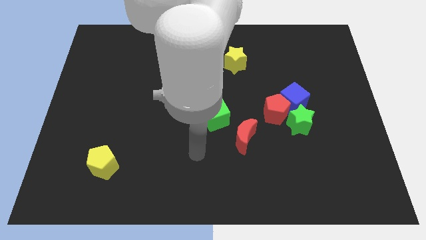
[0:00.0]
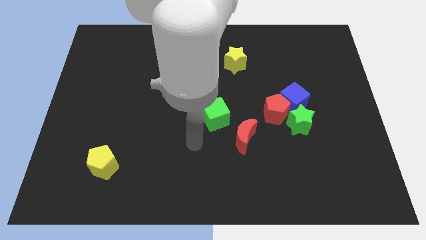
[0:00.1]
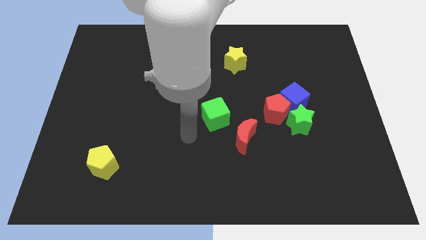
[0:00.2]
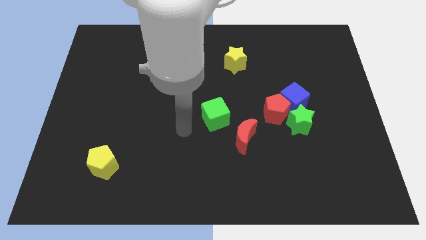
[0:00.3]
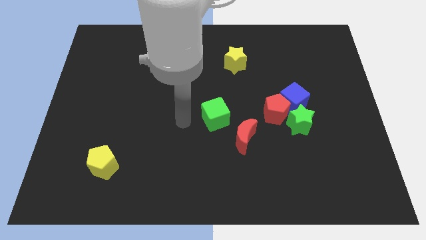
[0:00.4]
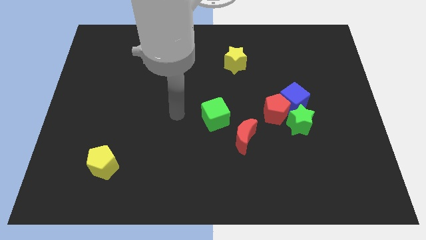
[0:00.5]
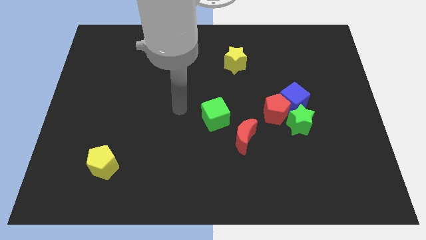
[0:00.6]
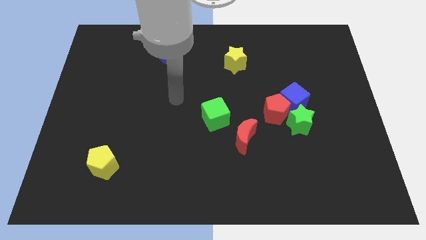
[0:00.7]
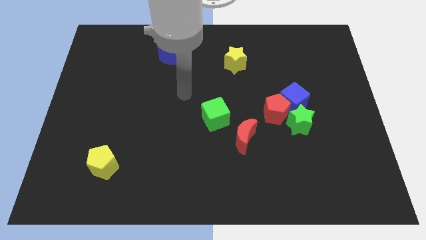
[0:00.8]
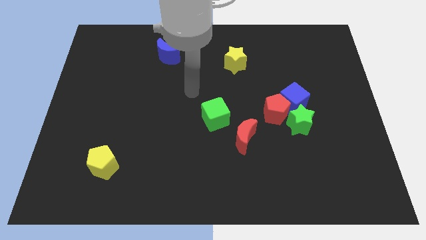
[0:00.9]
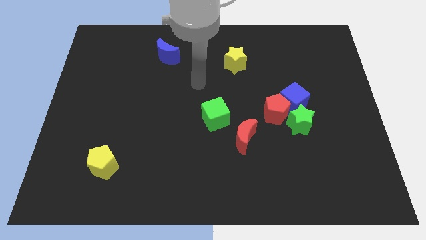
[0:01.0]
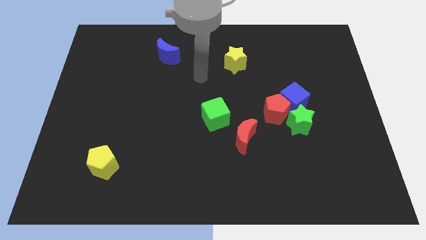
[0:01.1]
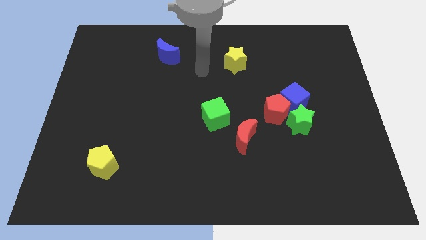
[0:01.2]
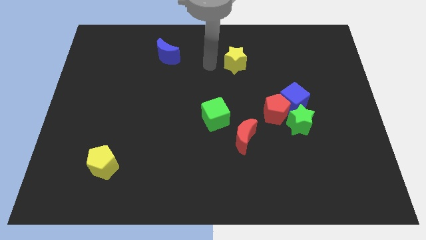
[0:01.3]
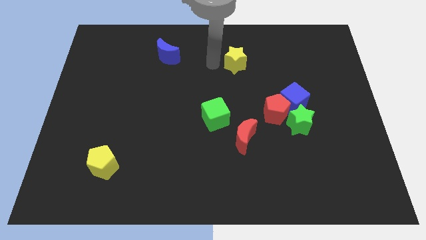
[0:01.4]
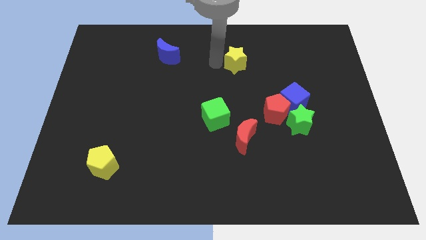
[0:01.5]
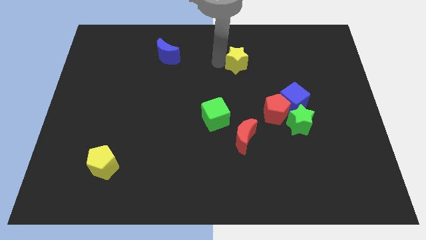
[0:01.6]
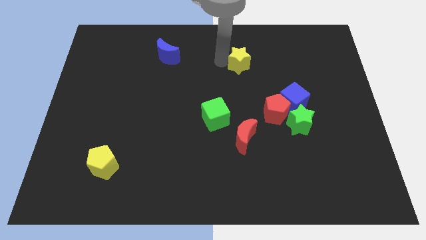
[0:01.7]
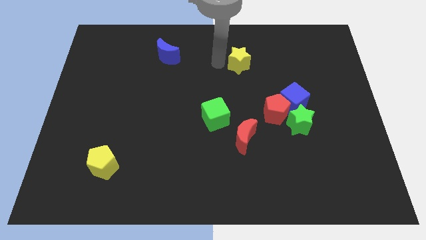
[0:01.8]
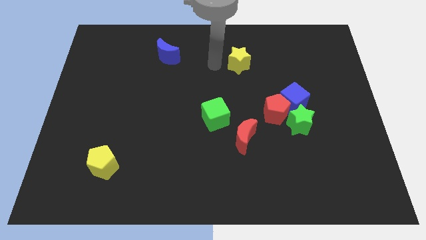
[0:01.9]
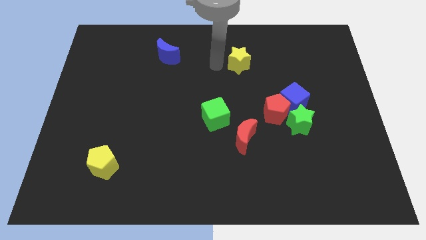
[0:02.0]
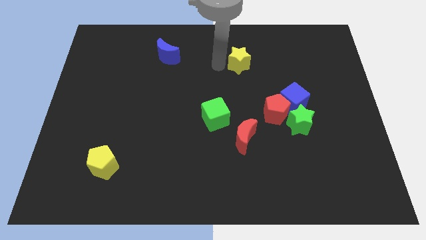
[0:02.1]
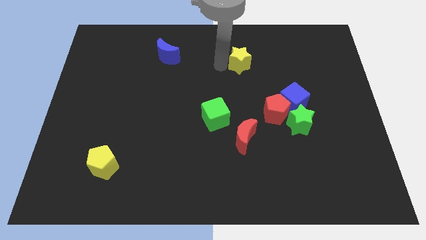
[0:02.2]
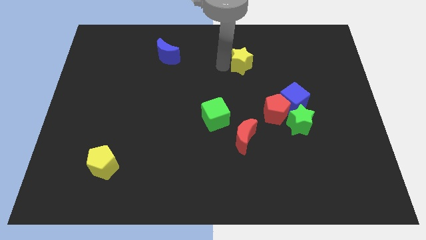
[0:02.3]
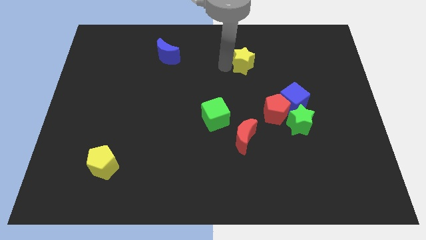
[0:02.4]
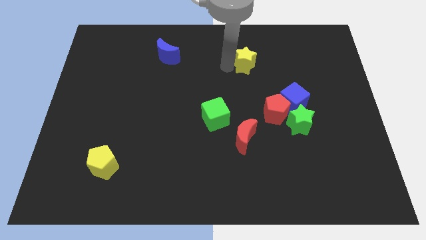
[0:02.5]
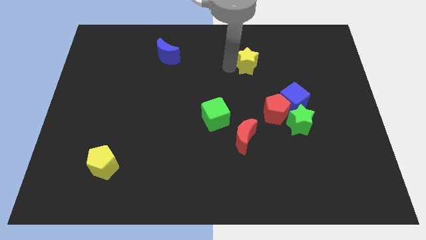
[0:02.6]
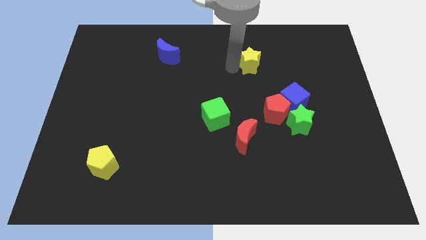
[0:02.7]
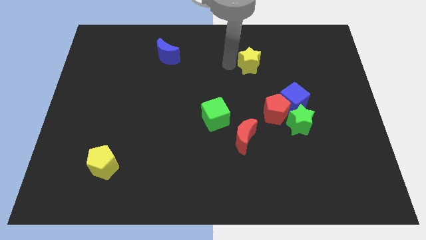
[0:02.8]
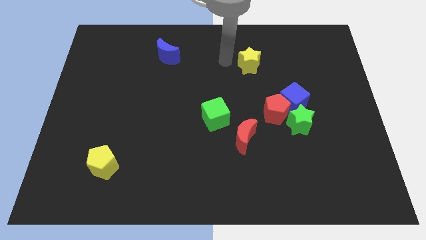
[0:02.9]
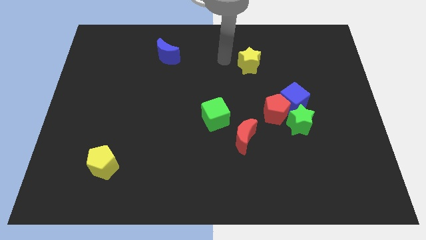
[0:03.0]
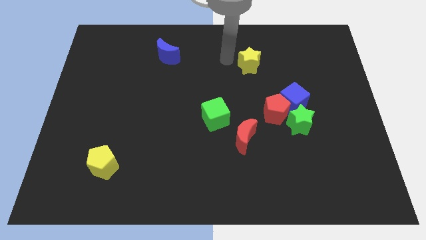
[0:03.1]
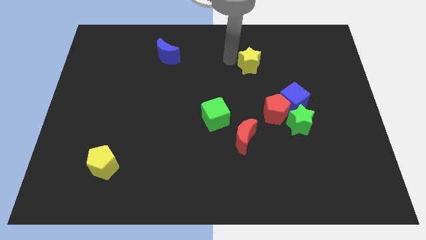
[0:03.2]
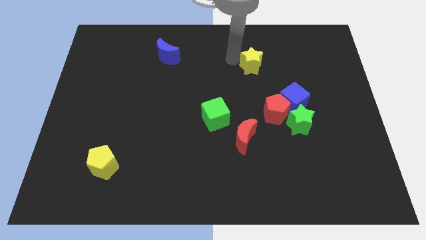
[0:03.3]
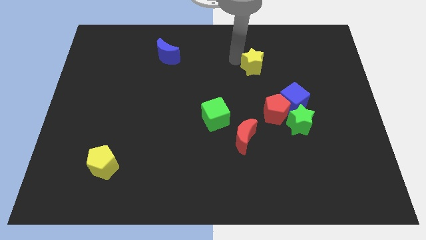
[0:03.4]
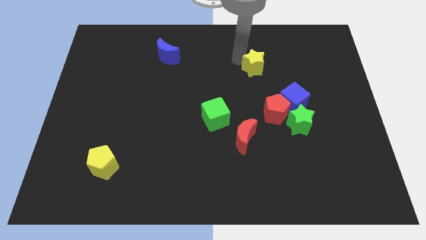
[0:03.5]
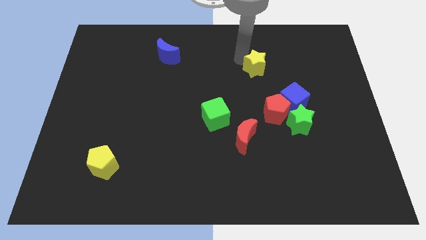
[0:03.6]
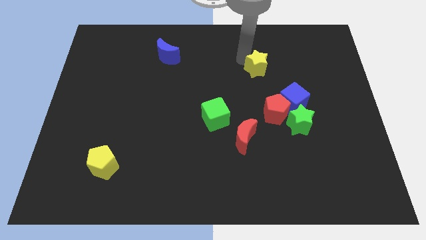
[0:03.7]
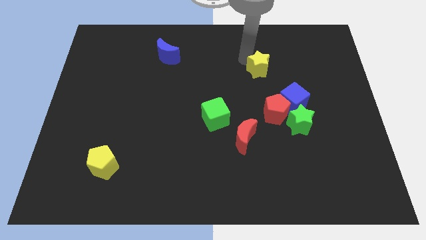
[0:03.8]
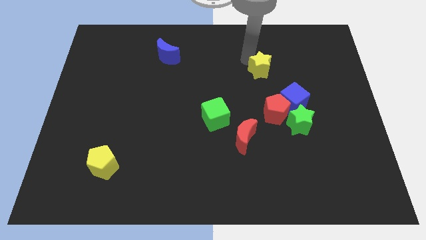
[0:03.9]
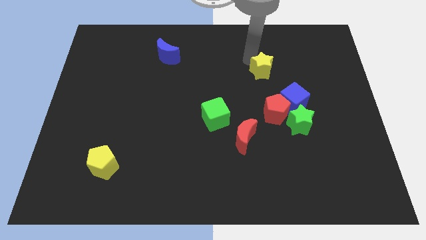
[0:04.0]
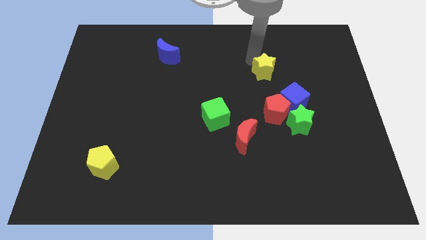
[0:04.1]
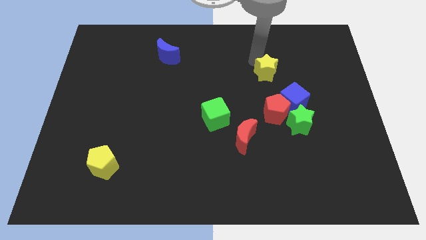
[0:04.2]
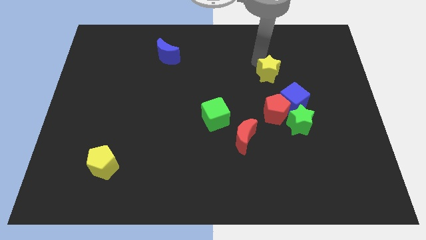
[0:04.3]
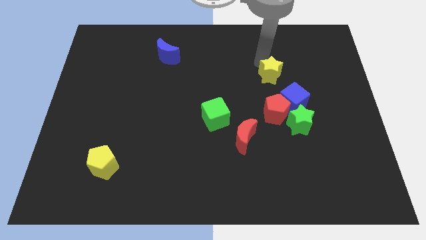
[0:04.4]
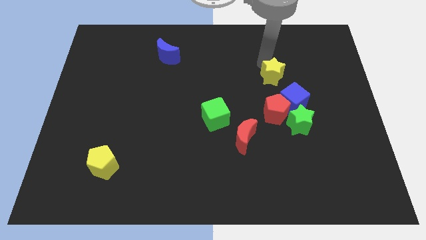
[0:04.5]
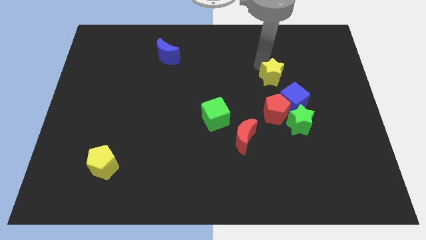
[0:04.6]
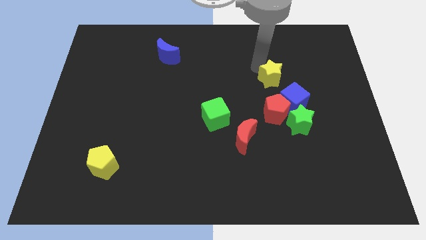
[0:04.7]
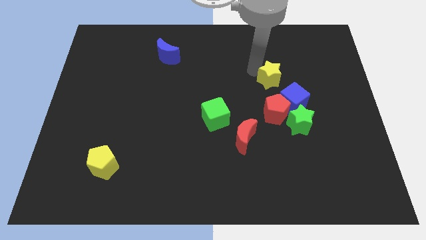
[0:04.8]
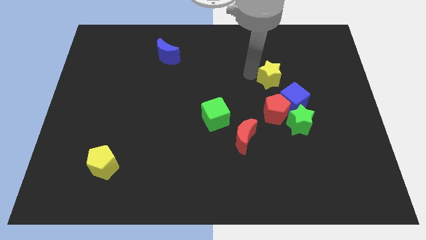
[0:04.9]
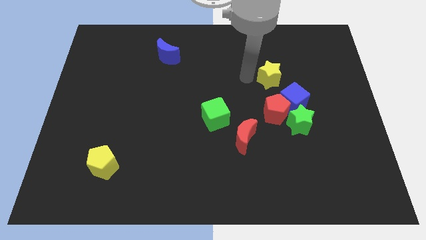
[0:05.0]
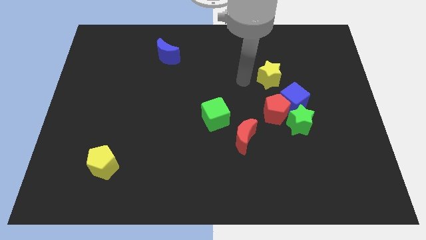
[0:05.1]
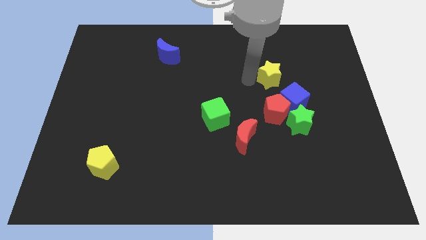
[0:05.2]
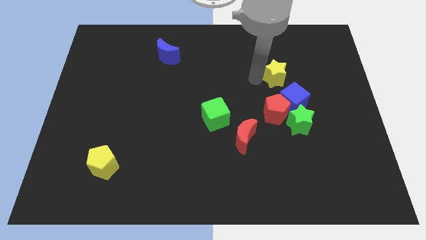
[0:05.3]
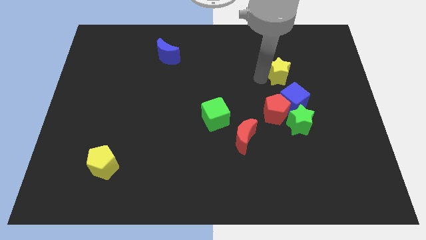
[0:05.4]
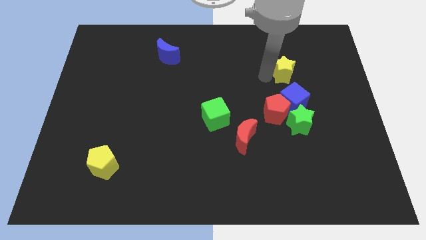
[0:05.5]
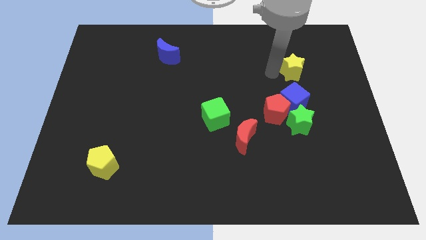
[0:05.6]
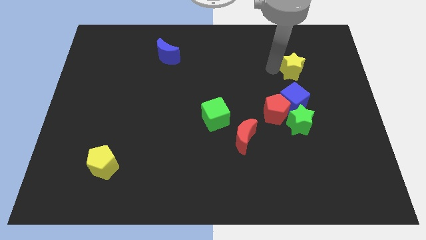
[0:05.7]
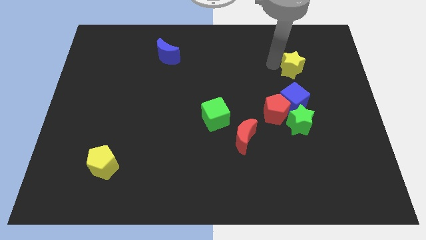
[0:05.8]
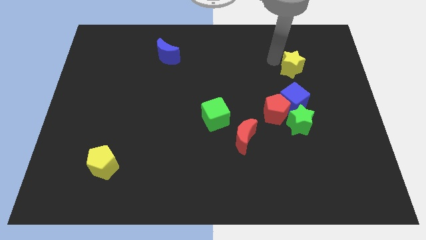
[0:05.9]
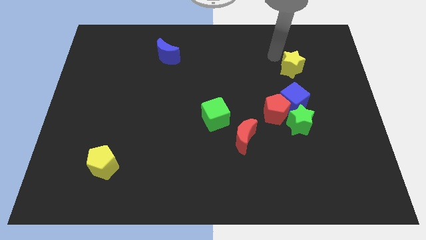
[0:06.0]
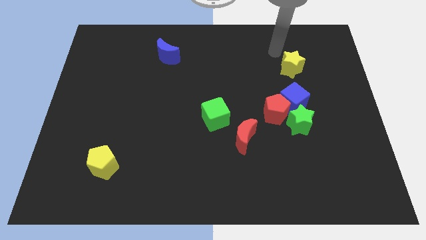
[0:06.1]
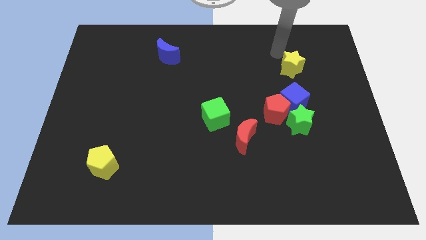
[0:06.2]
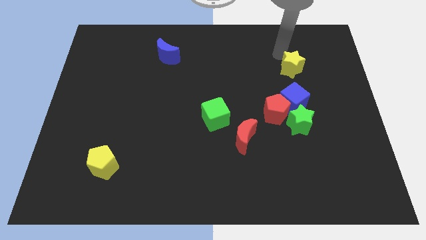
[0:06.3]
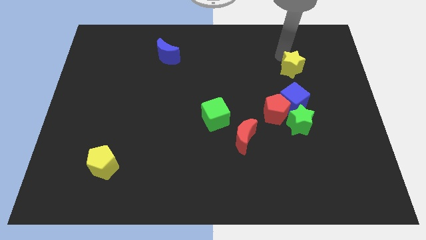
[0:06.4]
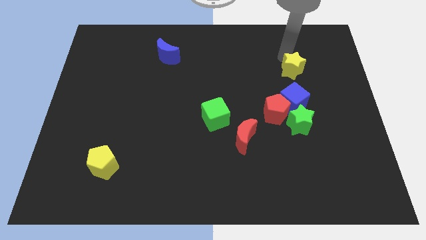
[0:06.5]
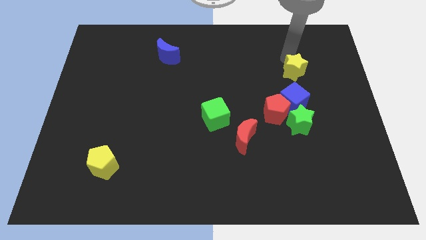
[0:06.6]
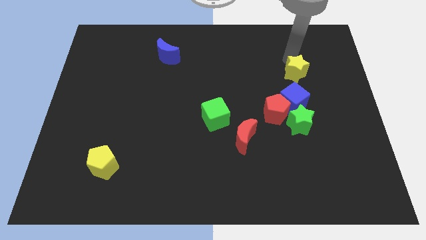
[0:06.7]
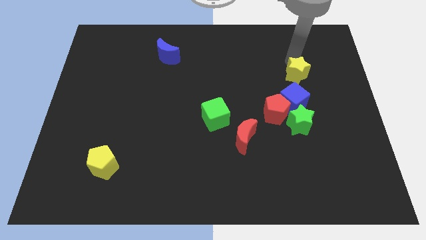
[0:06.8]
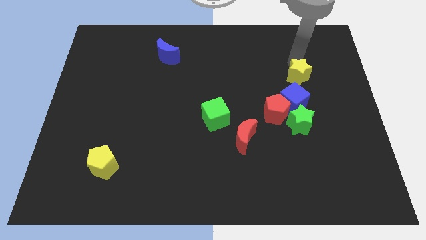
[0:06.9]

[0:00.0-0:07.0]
put the yellow star diagonally up and to the right of the blue cube

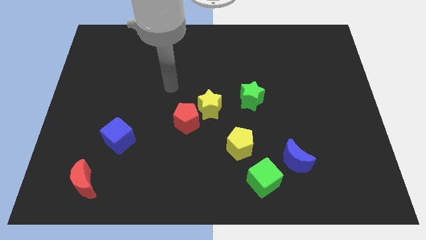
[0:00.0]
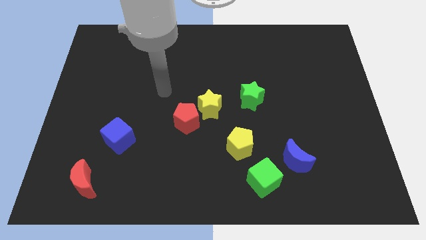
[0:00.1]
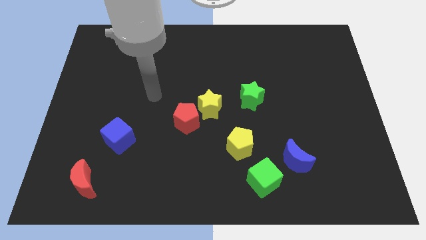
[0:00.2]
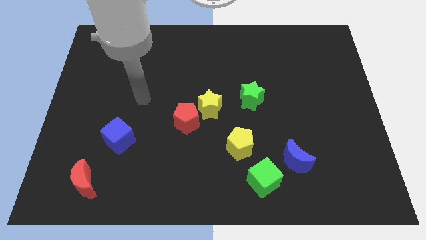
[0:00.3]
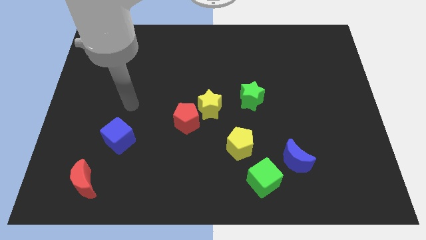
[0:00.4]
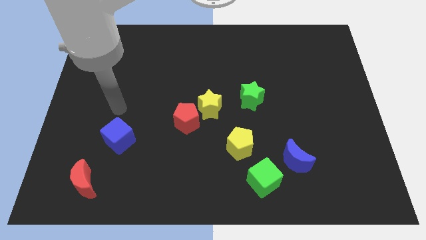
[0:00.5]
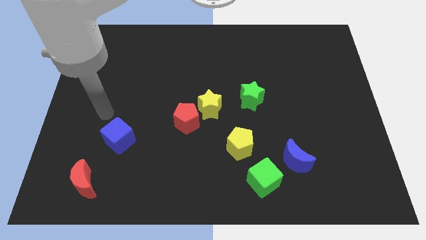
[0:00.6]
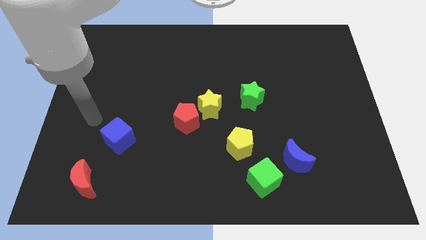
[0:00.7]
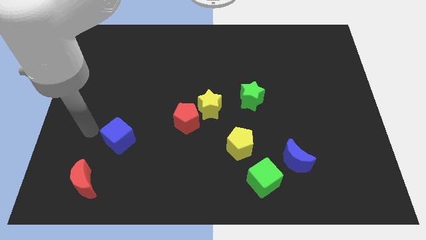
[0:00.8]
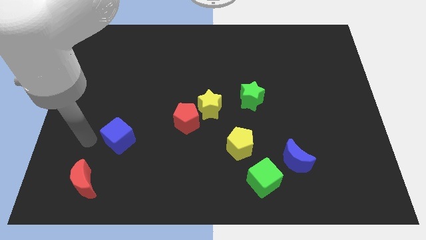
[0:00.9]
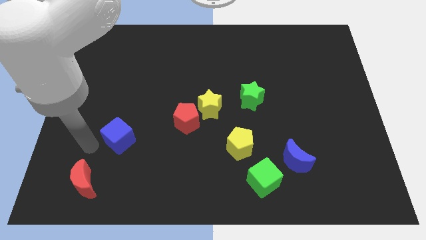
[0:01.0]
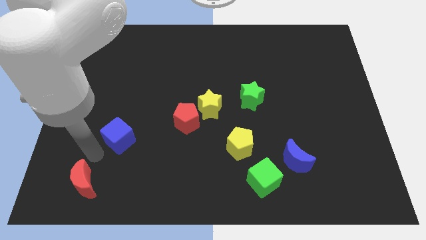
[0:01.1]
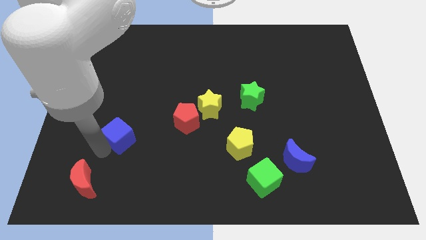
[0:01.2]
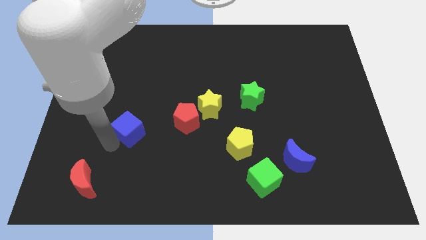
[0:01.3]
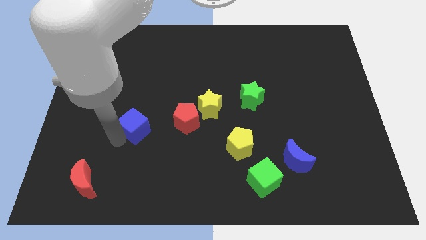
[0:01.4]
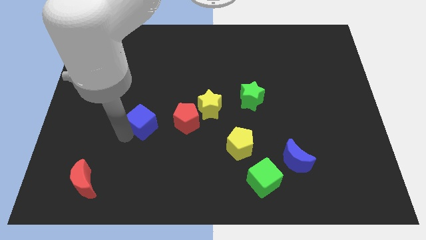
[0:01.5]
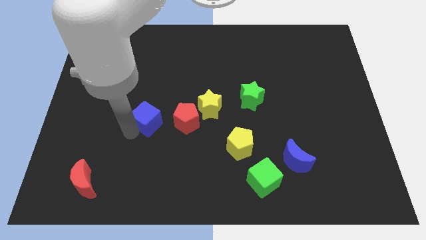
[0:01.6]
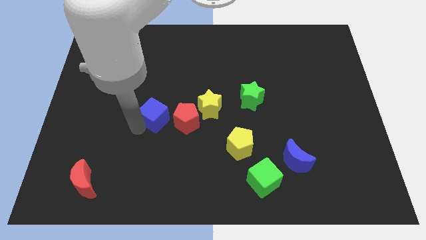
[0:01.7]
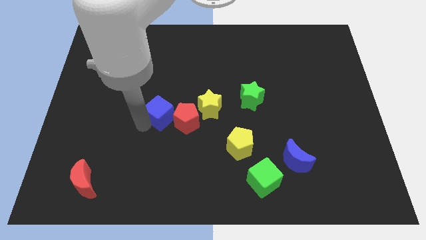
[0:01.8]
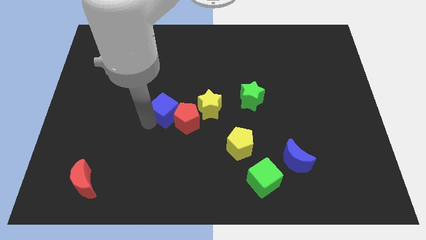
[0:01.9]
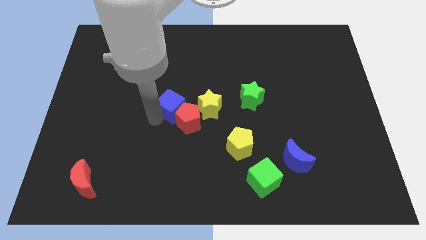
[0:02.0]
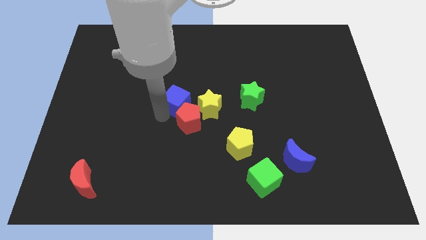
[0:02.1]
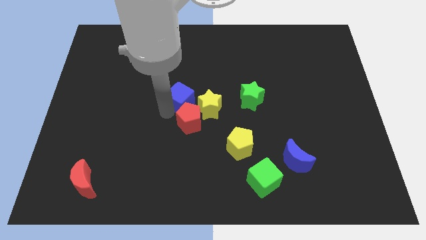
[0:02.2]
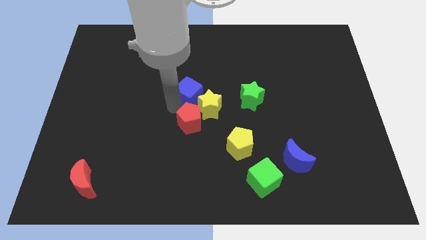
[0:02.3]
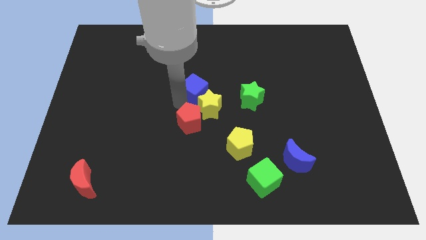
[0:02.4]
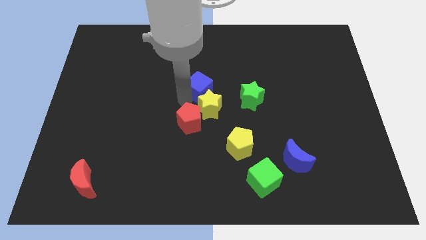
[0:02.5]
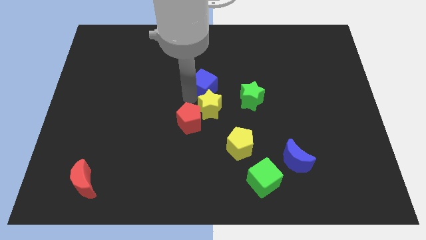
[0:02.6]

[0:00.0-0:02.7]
slide the blue cube diagonally up and to the right of the red pentagon
